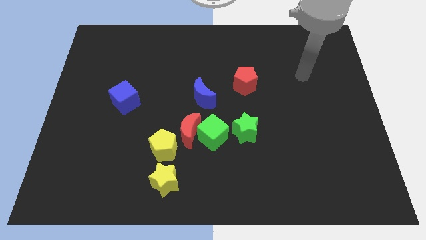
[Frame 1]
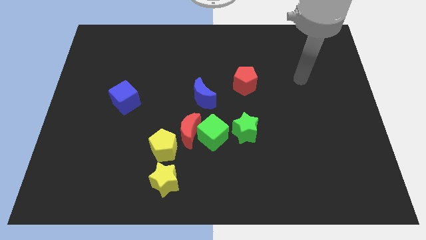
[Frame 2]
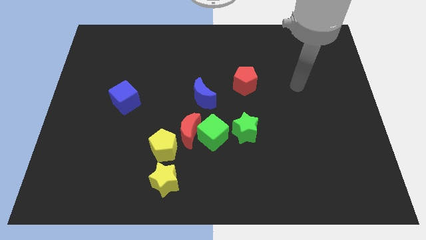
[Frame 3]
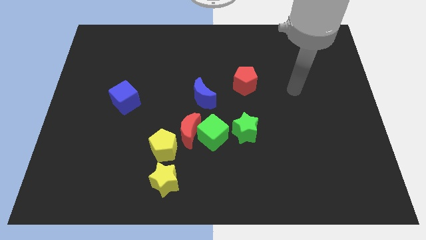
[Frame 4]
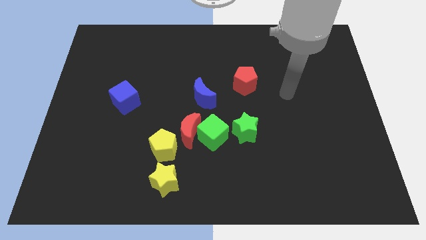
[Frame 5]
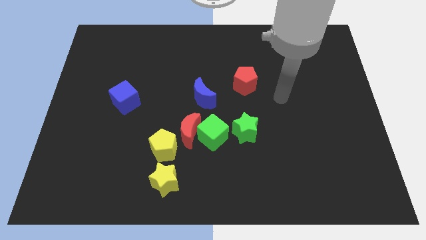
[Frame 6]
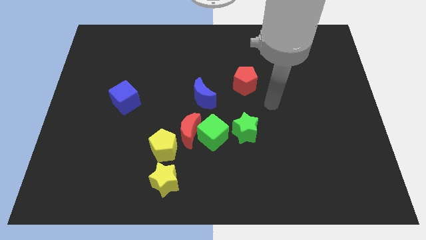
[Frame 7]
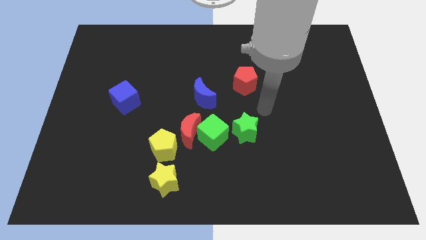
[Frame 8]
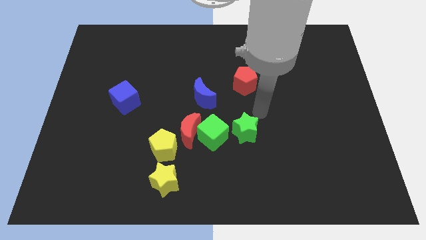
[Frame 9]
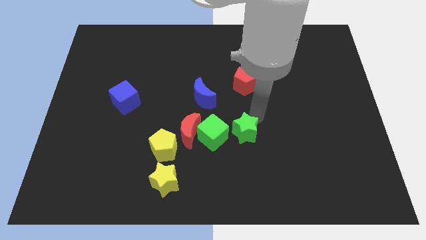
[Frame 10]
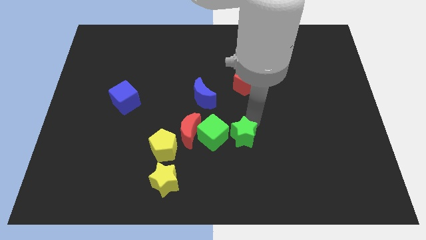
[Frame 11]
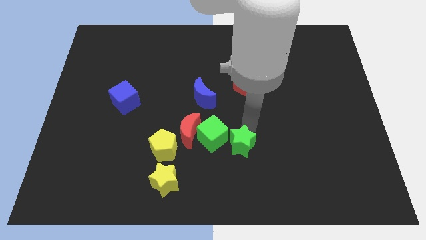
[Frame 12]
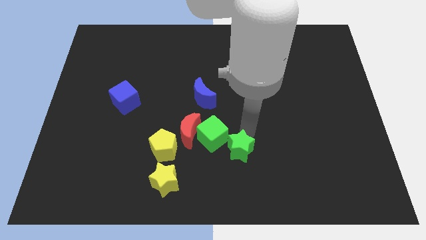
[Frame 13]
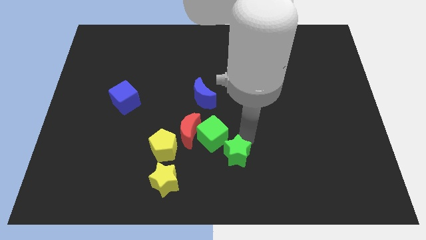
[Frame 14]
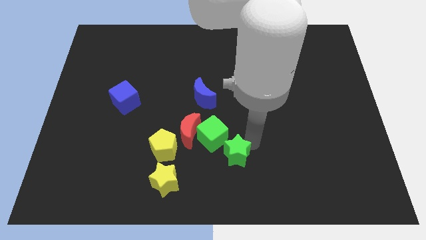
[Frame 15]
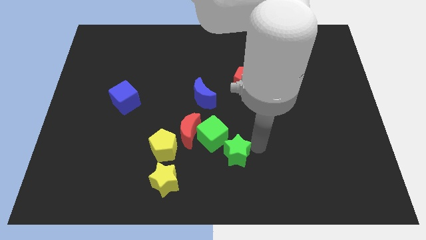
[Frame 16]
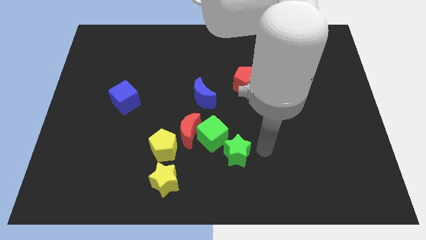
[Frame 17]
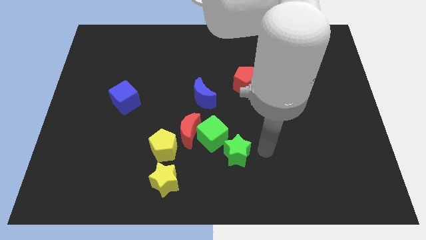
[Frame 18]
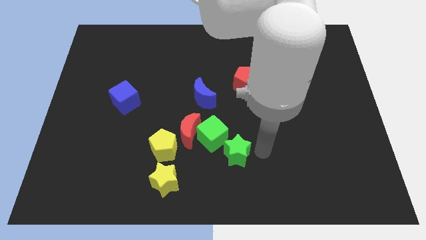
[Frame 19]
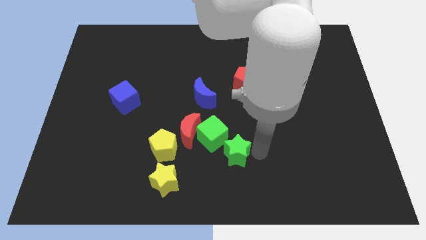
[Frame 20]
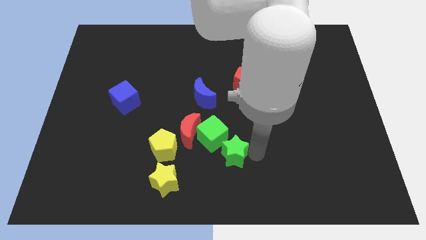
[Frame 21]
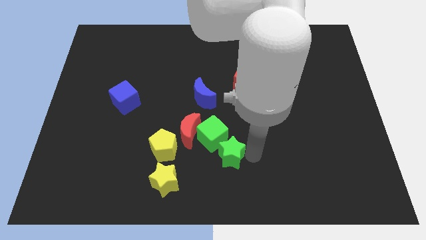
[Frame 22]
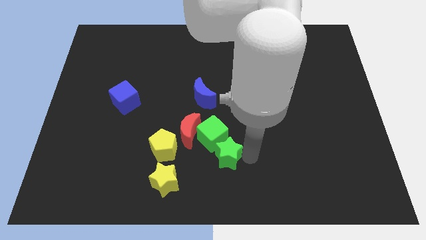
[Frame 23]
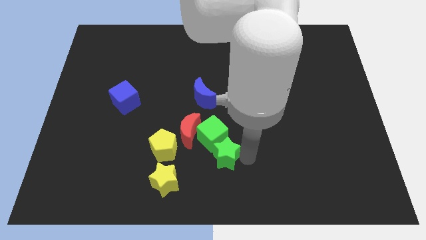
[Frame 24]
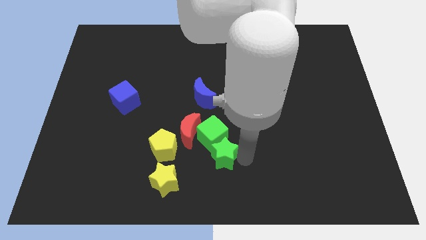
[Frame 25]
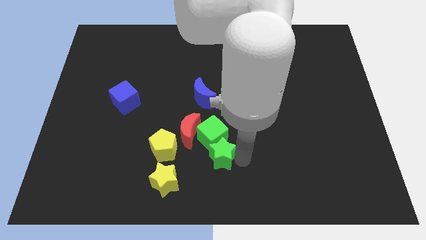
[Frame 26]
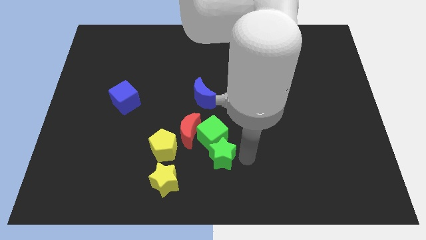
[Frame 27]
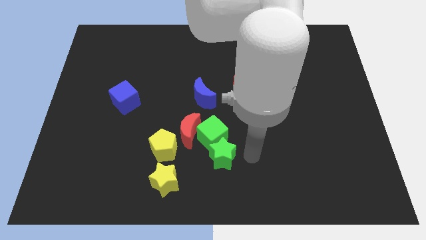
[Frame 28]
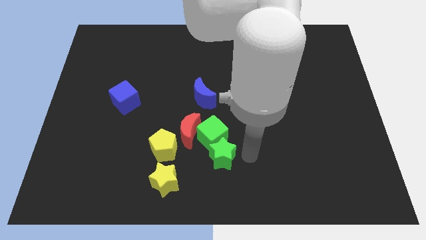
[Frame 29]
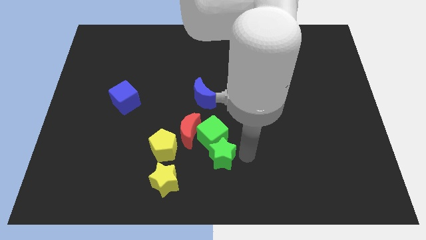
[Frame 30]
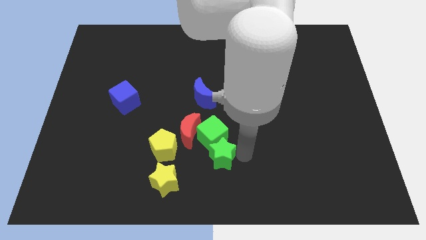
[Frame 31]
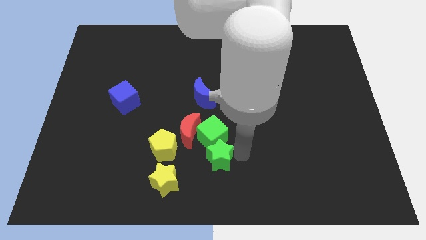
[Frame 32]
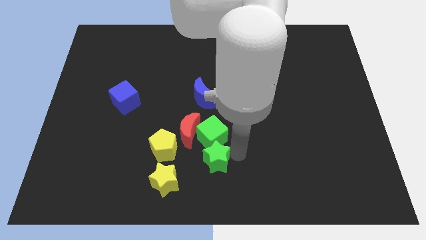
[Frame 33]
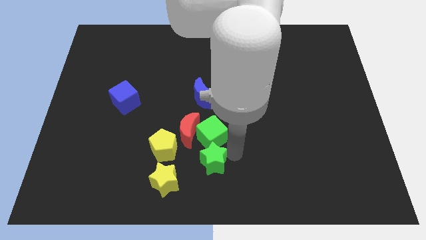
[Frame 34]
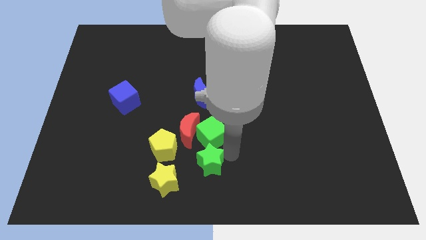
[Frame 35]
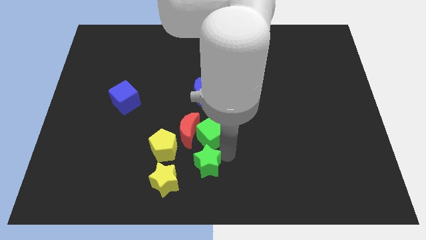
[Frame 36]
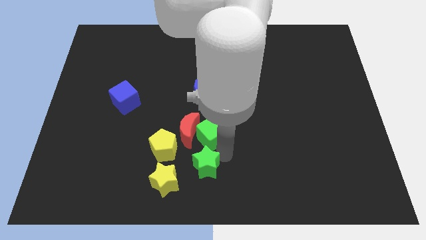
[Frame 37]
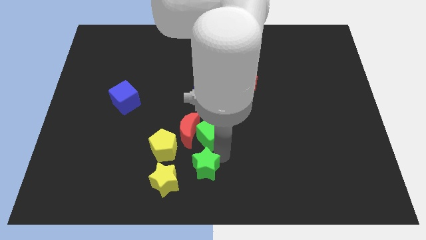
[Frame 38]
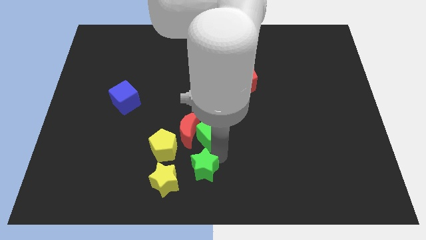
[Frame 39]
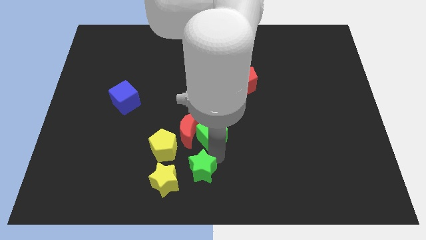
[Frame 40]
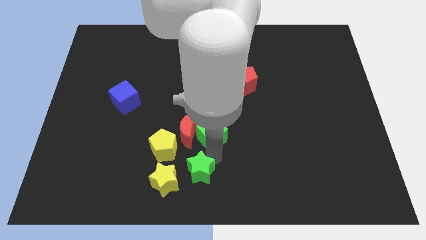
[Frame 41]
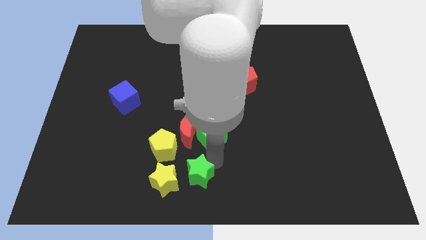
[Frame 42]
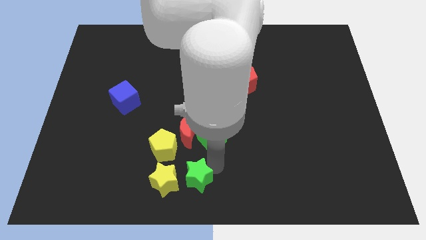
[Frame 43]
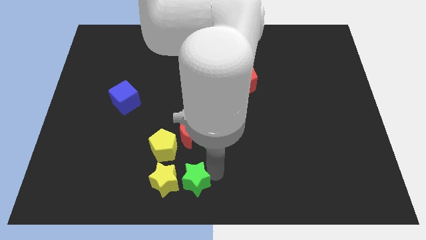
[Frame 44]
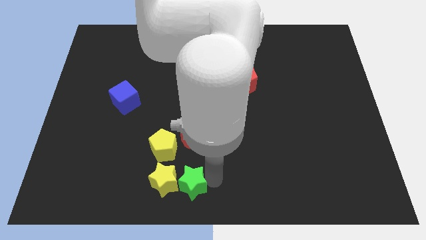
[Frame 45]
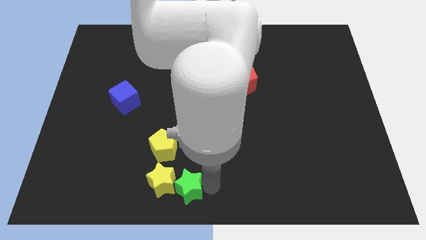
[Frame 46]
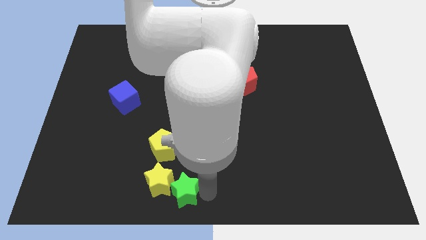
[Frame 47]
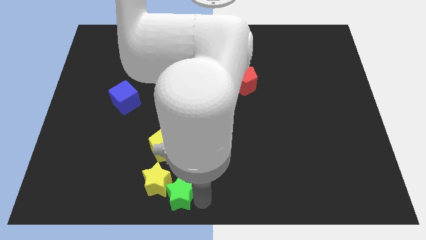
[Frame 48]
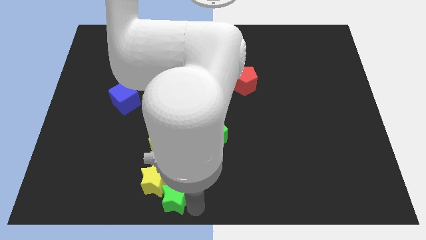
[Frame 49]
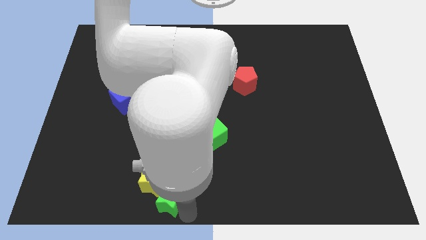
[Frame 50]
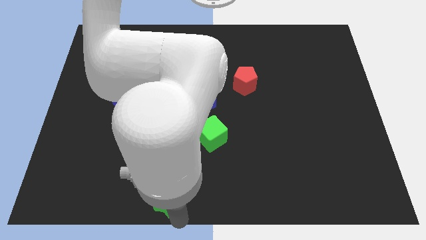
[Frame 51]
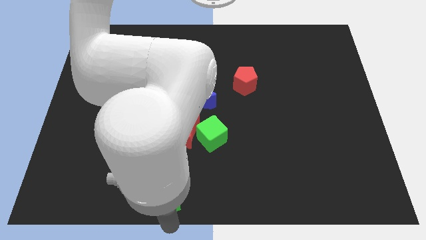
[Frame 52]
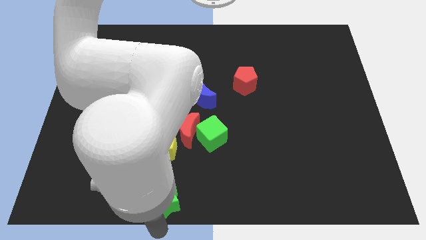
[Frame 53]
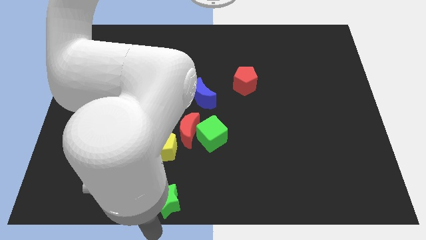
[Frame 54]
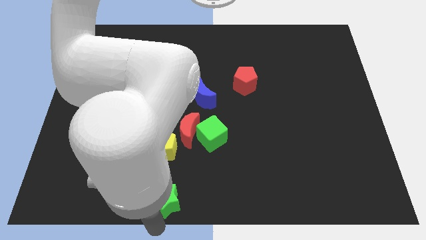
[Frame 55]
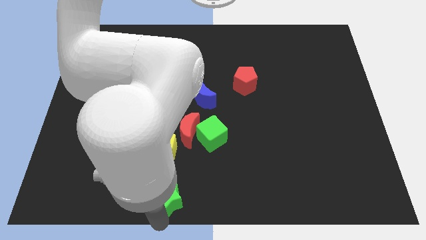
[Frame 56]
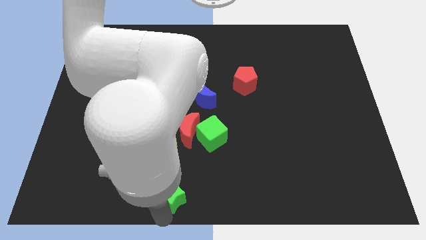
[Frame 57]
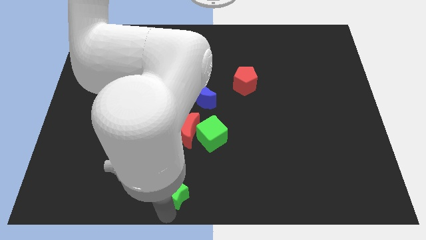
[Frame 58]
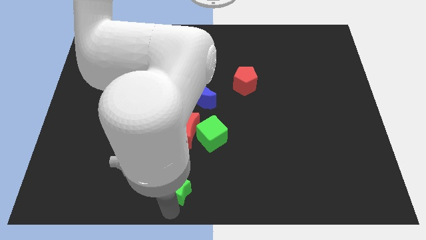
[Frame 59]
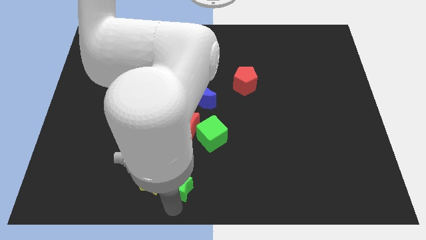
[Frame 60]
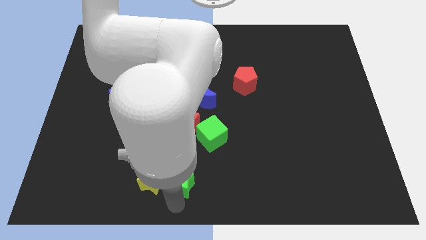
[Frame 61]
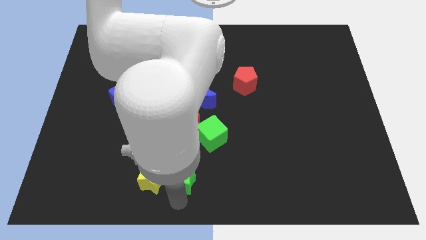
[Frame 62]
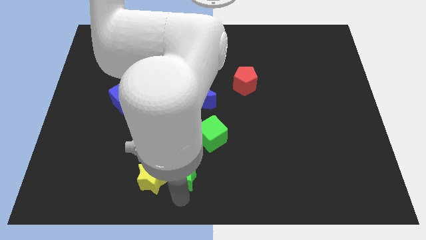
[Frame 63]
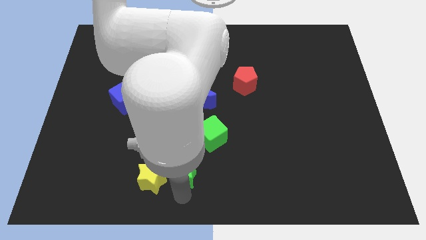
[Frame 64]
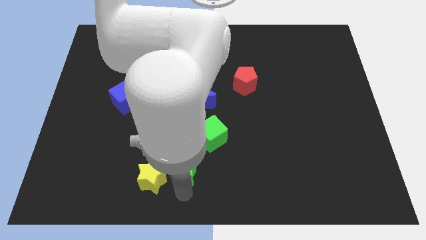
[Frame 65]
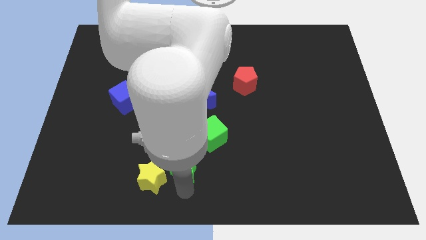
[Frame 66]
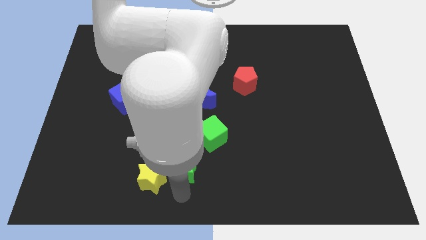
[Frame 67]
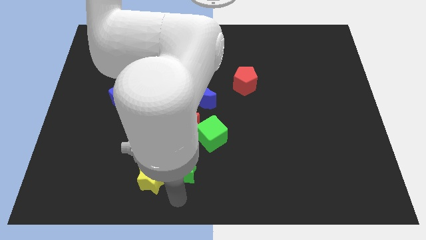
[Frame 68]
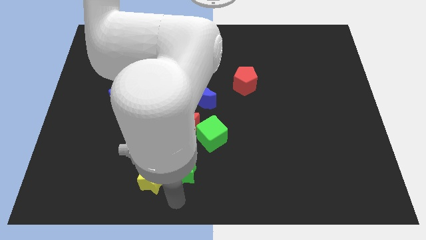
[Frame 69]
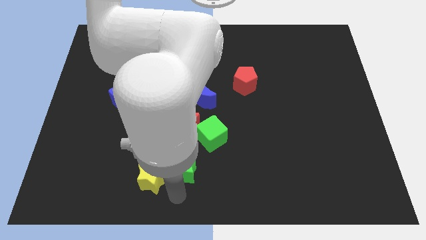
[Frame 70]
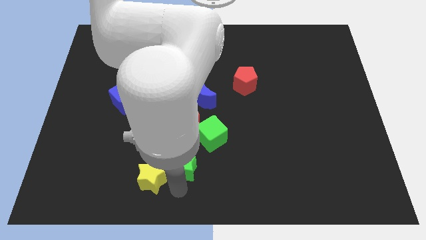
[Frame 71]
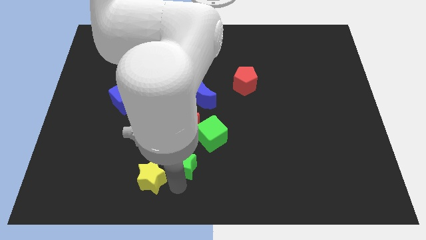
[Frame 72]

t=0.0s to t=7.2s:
slide the green star towards the yellow pentagon

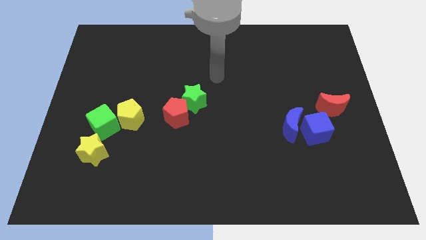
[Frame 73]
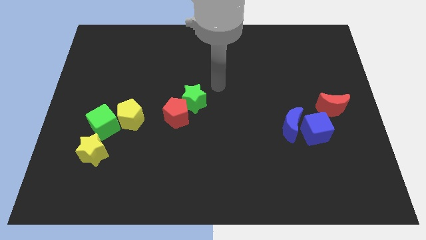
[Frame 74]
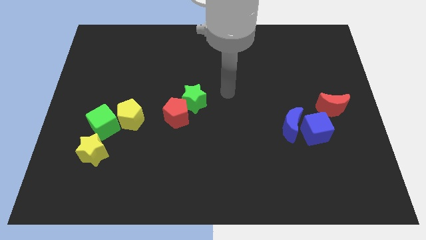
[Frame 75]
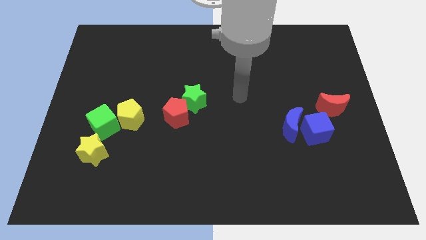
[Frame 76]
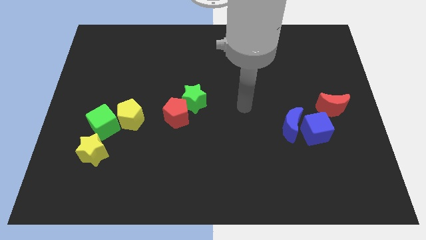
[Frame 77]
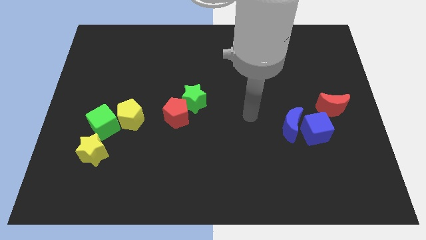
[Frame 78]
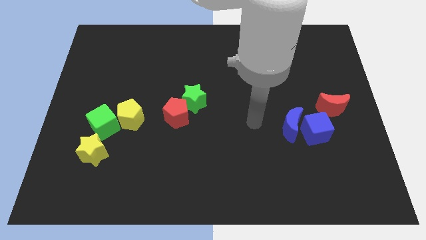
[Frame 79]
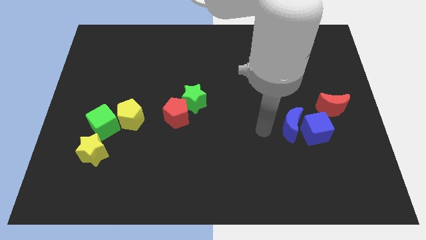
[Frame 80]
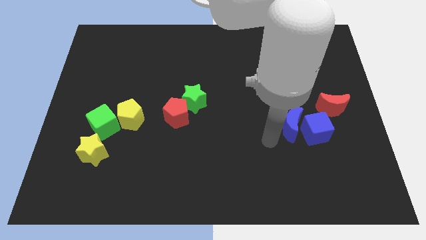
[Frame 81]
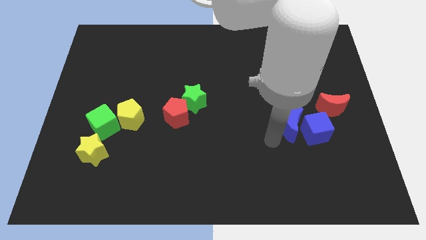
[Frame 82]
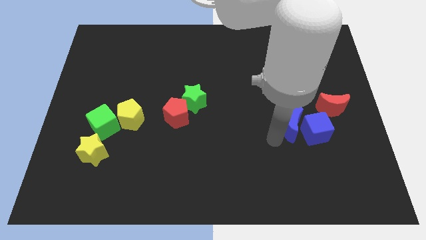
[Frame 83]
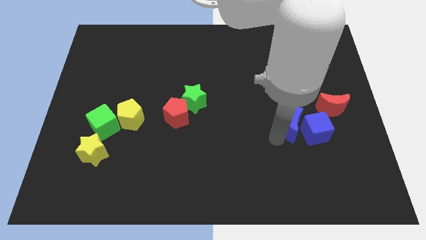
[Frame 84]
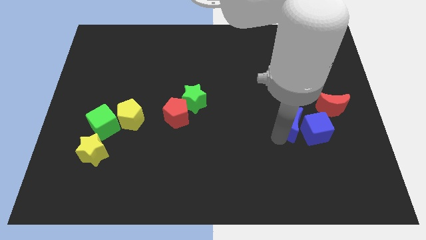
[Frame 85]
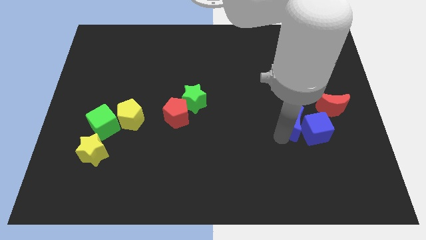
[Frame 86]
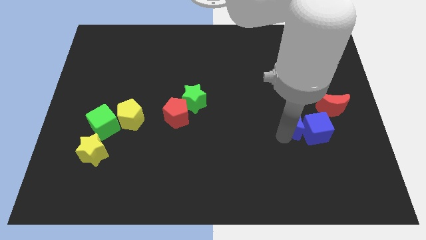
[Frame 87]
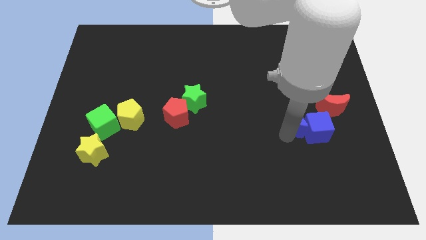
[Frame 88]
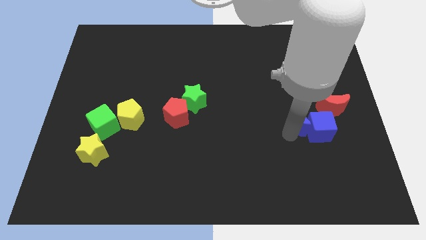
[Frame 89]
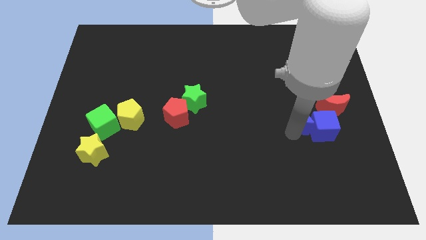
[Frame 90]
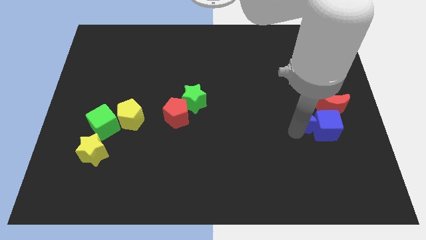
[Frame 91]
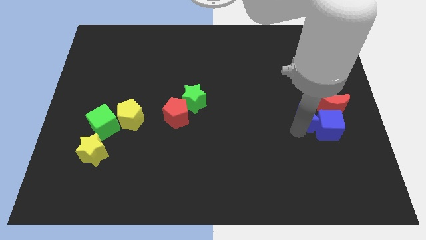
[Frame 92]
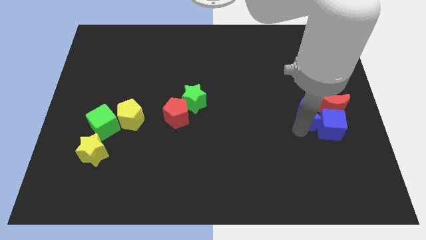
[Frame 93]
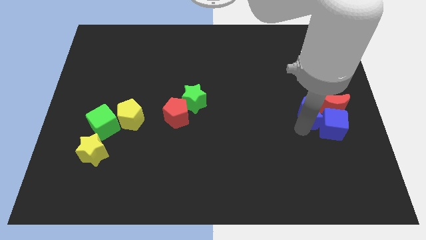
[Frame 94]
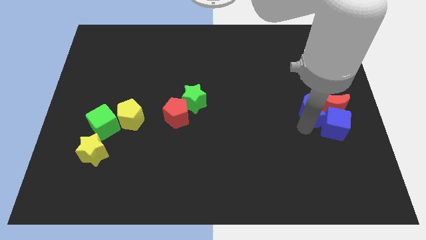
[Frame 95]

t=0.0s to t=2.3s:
push the blue moon to the red moon
